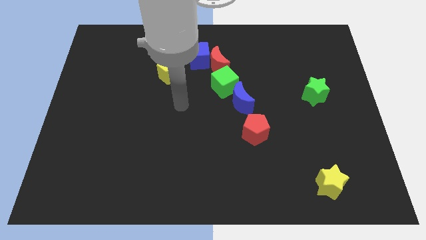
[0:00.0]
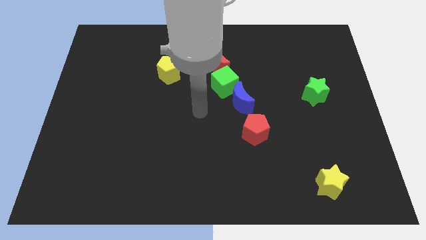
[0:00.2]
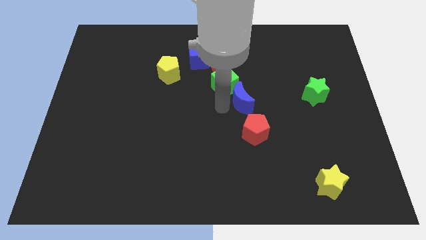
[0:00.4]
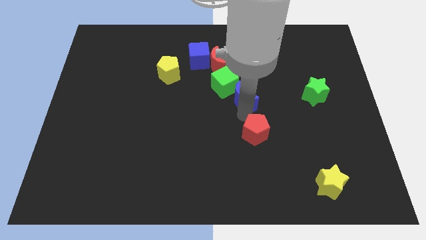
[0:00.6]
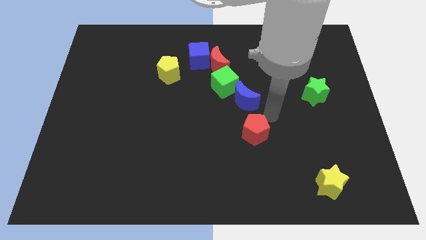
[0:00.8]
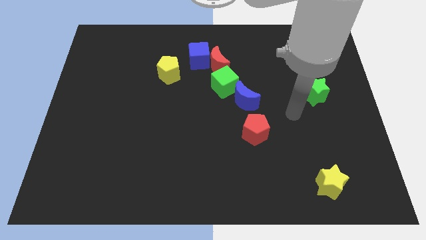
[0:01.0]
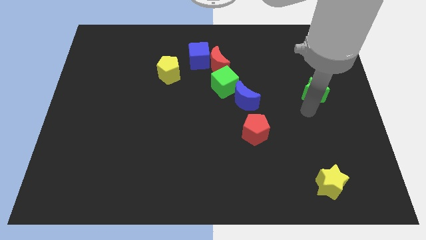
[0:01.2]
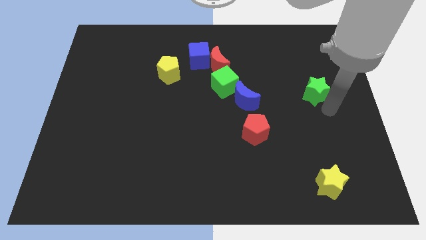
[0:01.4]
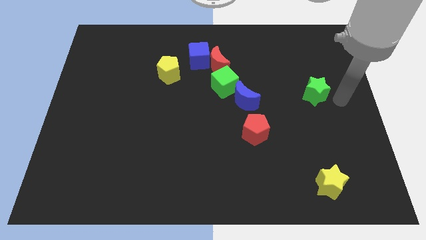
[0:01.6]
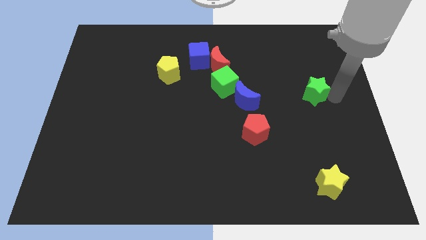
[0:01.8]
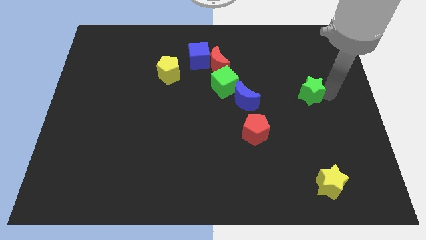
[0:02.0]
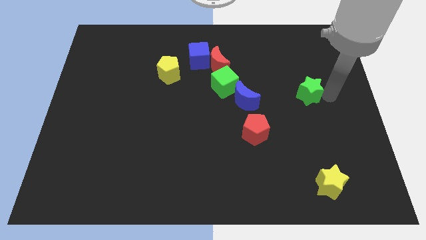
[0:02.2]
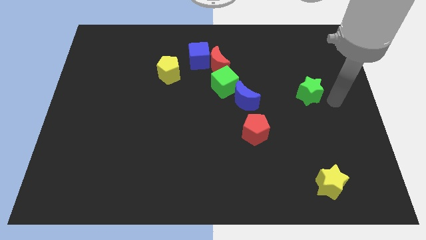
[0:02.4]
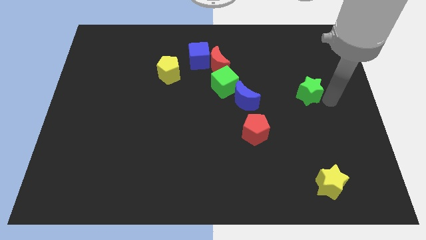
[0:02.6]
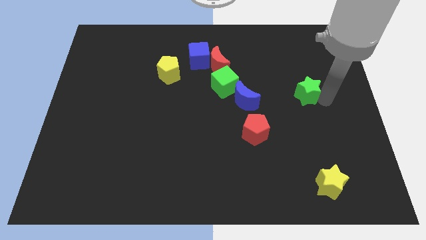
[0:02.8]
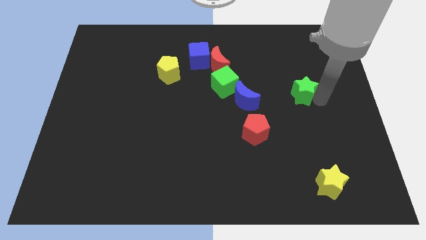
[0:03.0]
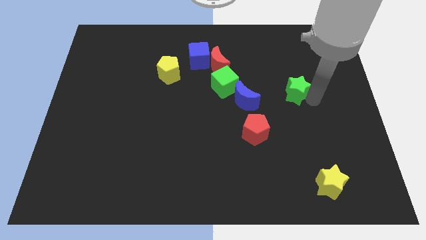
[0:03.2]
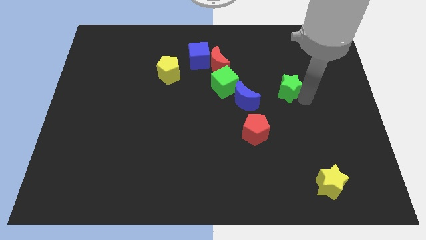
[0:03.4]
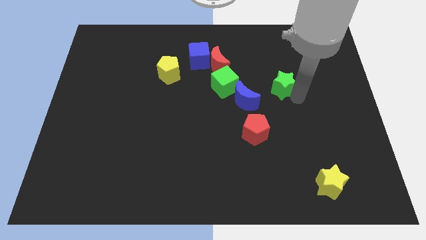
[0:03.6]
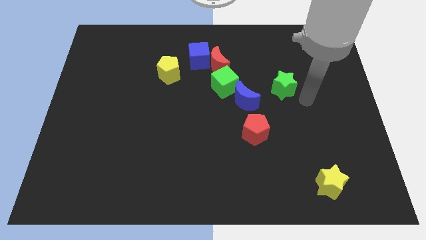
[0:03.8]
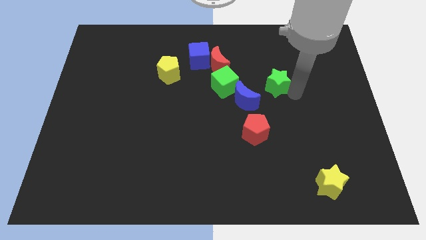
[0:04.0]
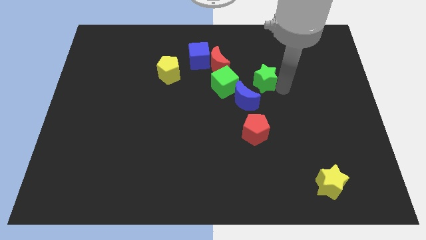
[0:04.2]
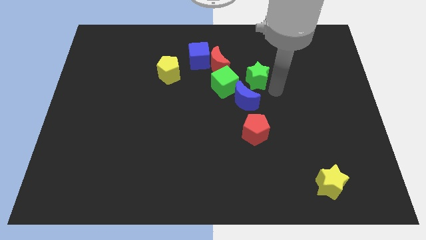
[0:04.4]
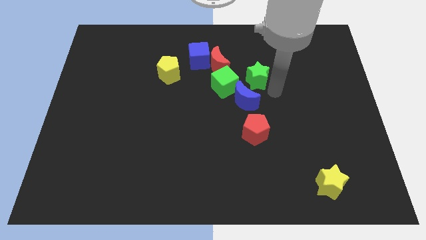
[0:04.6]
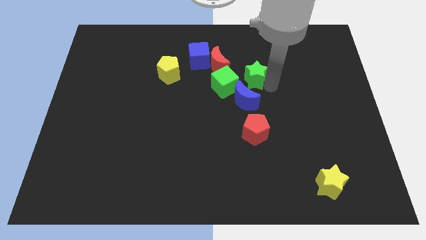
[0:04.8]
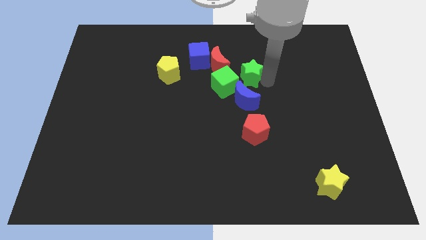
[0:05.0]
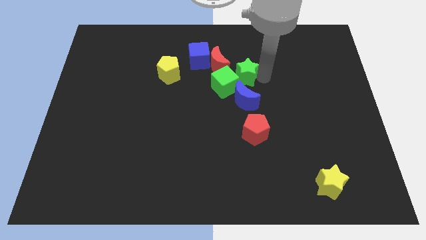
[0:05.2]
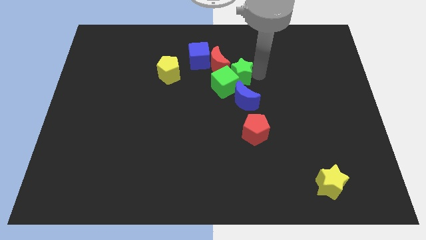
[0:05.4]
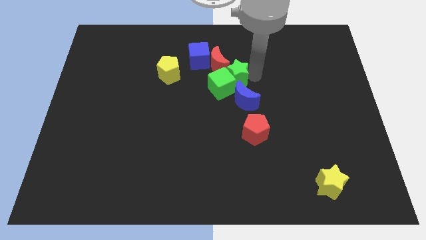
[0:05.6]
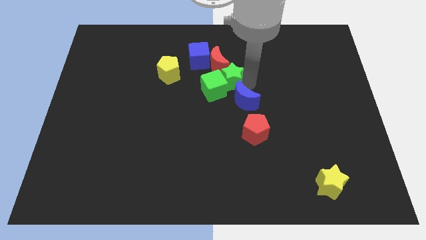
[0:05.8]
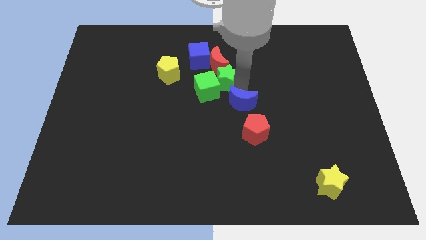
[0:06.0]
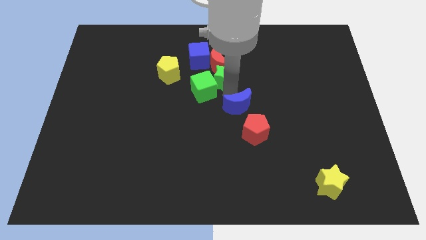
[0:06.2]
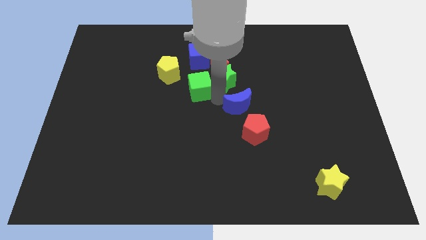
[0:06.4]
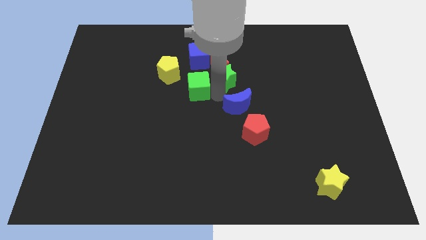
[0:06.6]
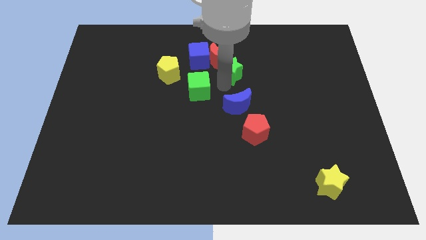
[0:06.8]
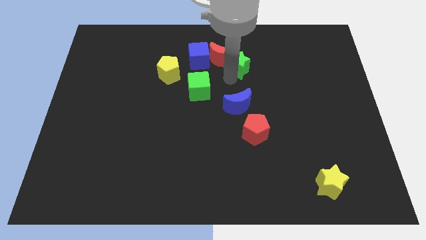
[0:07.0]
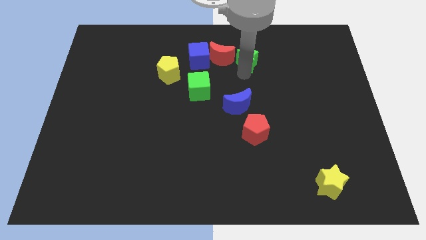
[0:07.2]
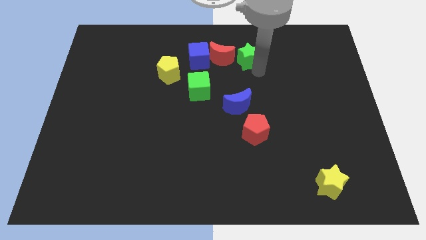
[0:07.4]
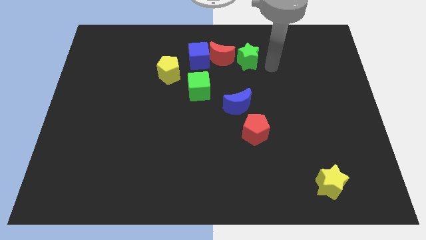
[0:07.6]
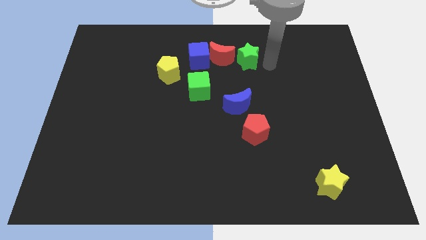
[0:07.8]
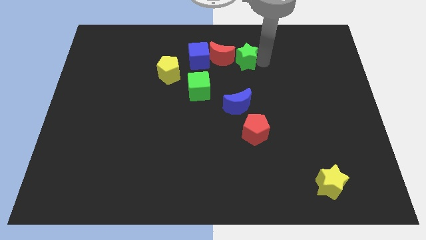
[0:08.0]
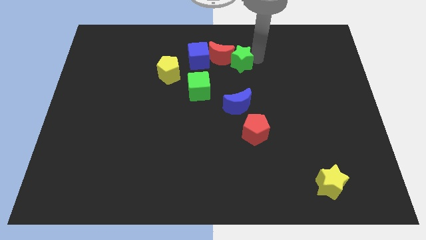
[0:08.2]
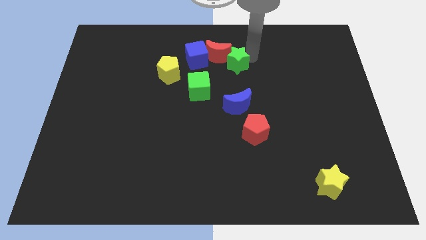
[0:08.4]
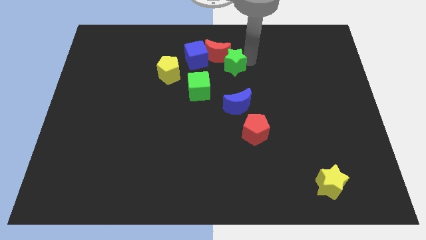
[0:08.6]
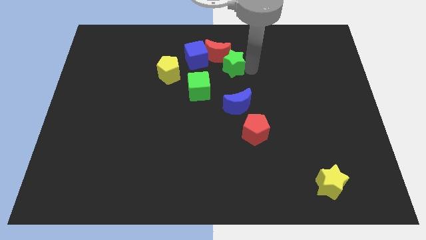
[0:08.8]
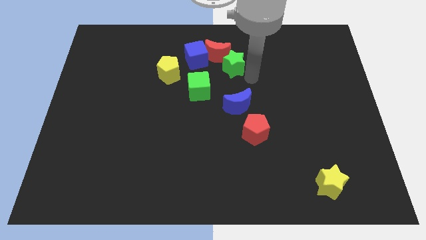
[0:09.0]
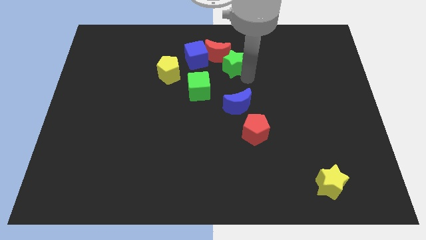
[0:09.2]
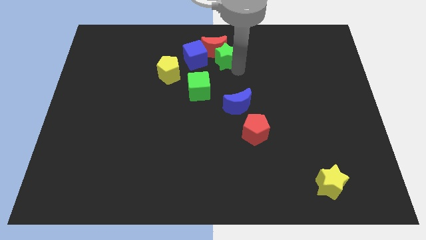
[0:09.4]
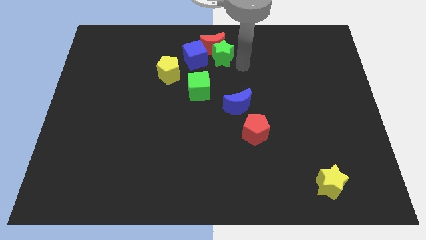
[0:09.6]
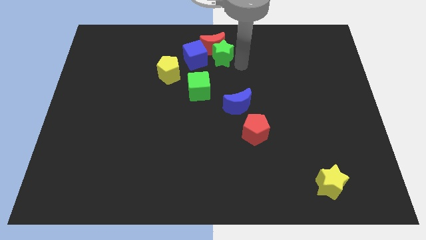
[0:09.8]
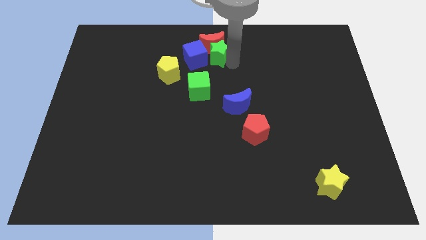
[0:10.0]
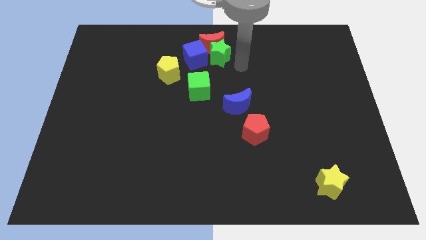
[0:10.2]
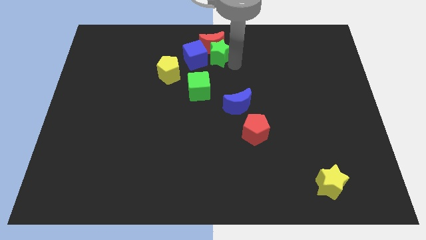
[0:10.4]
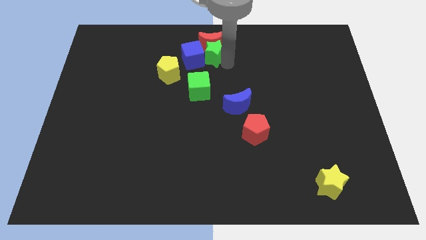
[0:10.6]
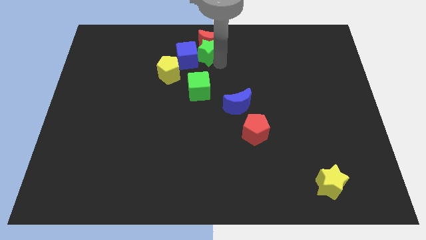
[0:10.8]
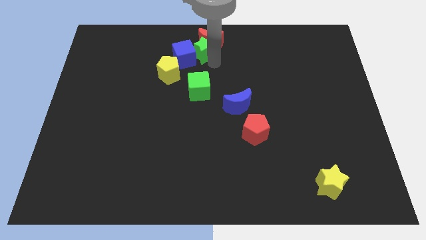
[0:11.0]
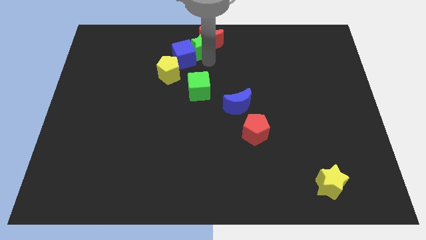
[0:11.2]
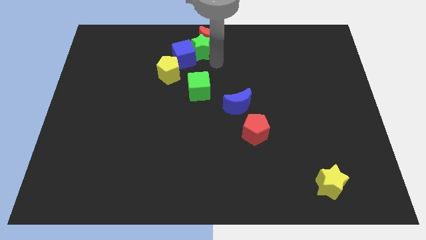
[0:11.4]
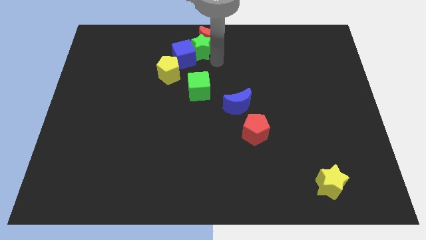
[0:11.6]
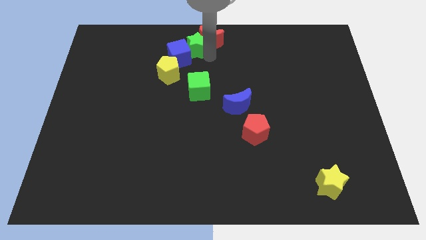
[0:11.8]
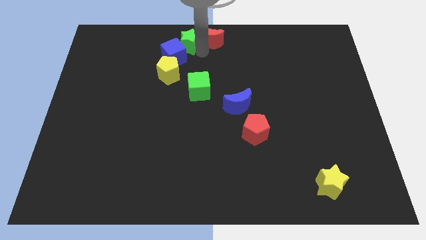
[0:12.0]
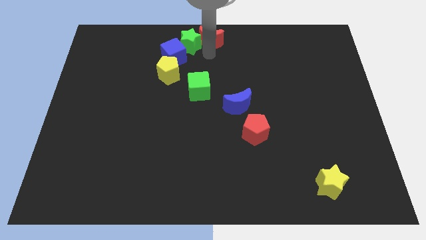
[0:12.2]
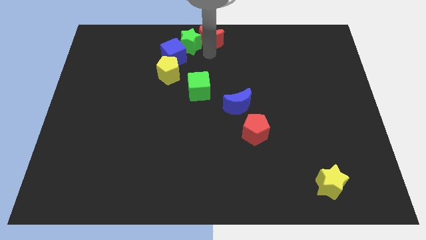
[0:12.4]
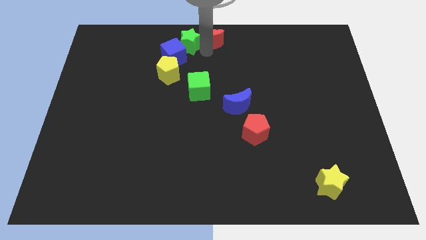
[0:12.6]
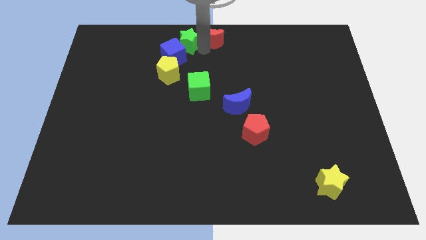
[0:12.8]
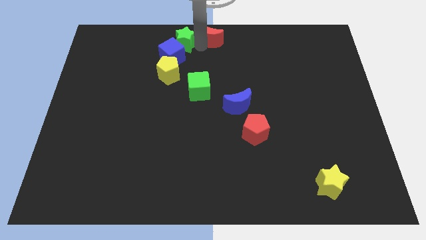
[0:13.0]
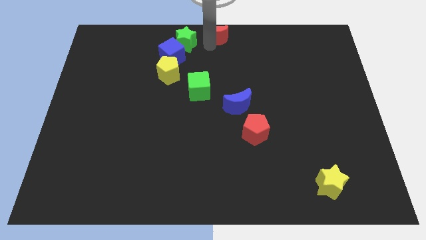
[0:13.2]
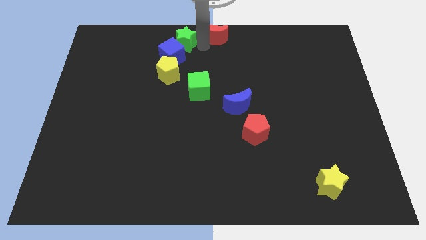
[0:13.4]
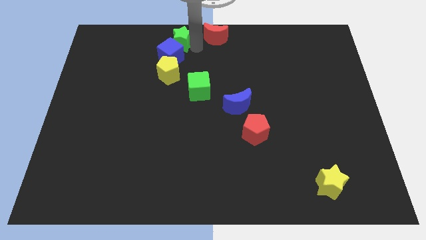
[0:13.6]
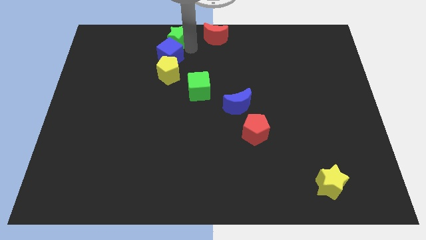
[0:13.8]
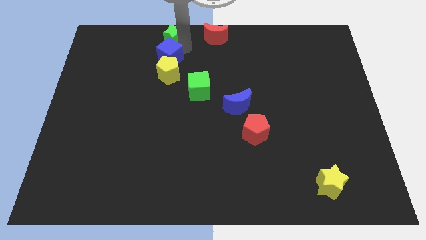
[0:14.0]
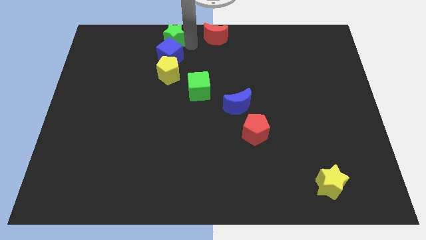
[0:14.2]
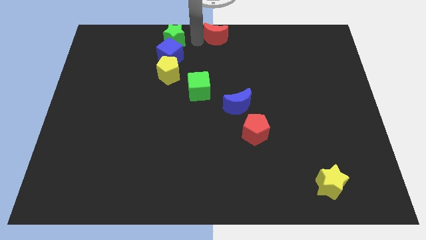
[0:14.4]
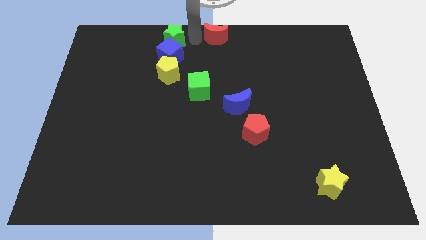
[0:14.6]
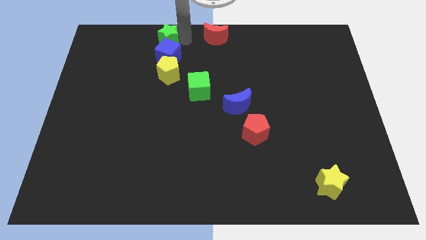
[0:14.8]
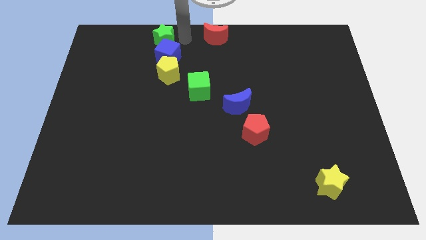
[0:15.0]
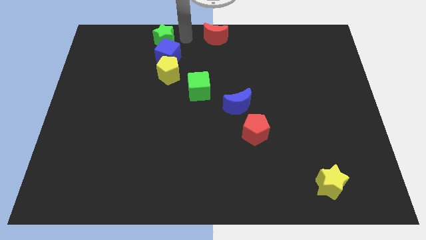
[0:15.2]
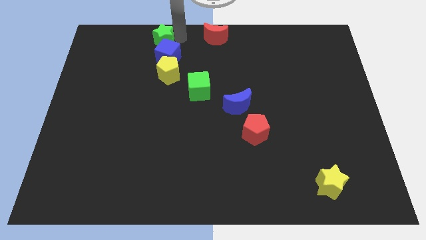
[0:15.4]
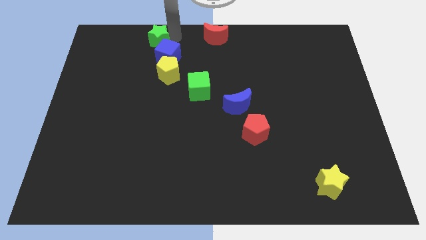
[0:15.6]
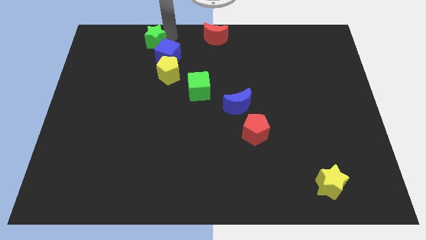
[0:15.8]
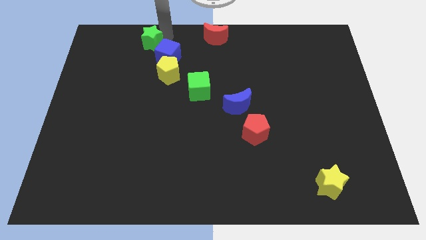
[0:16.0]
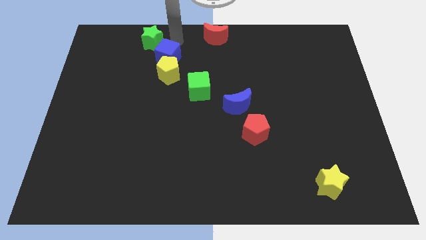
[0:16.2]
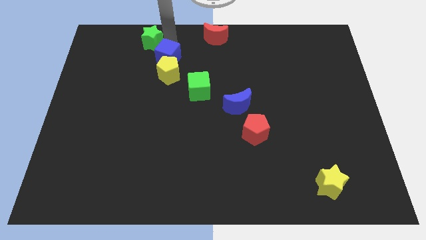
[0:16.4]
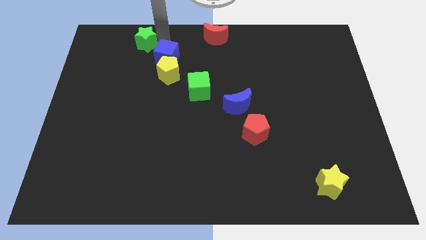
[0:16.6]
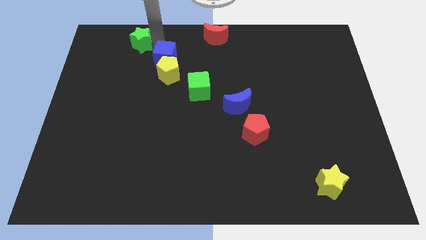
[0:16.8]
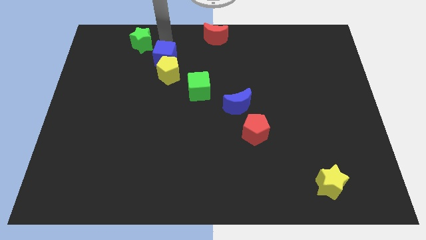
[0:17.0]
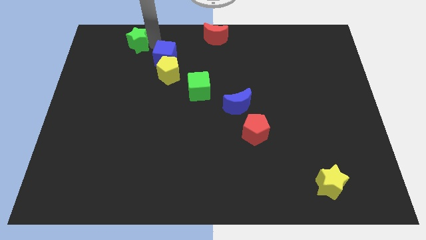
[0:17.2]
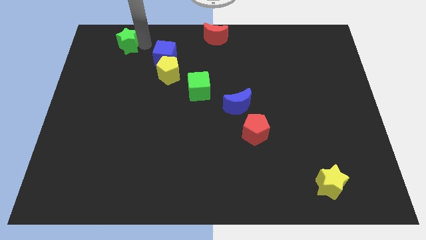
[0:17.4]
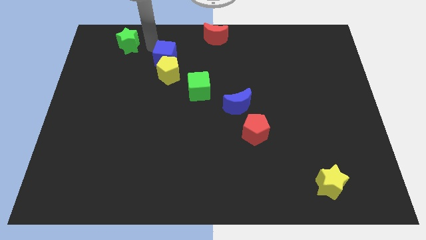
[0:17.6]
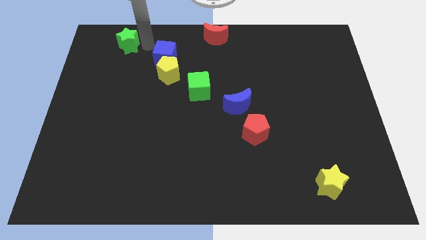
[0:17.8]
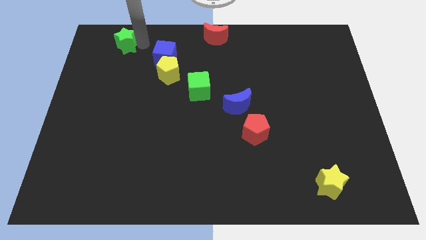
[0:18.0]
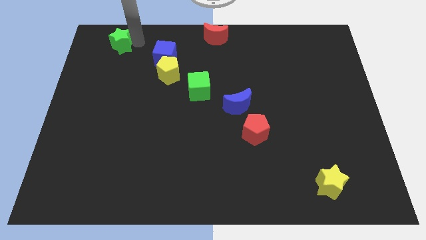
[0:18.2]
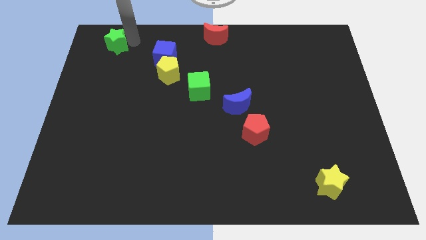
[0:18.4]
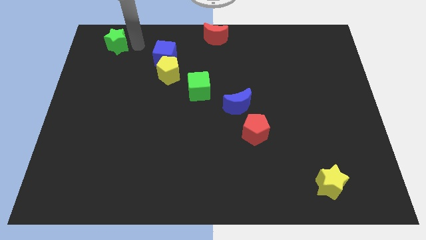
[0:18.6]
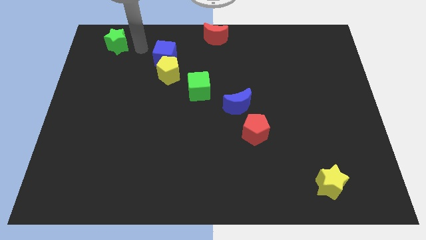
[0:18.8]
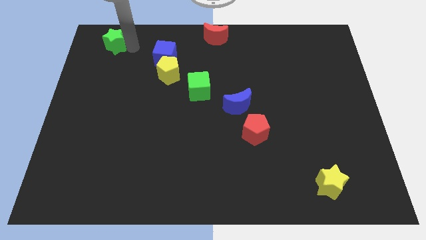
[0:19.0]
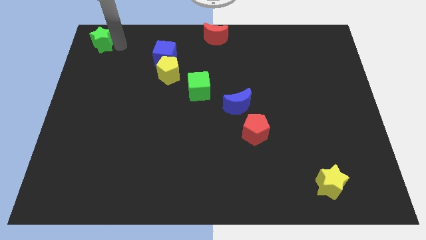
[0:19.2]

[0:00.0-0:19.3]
put the green star to the upper left corner
